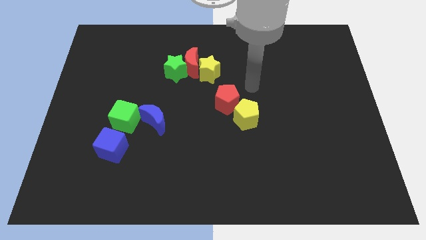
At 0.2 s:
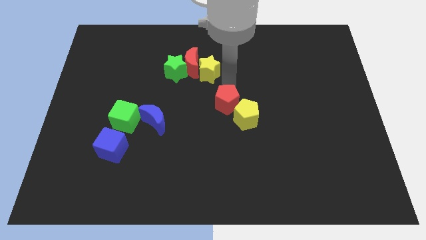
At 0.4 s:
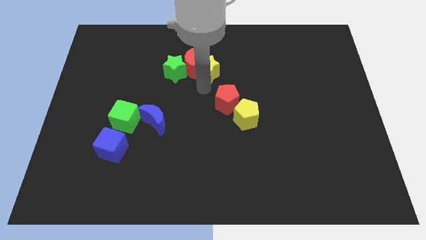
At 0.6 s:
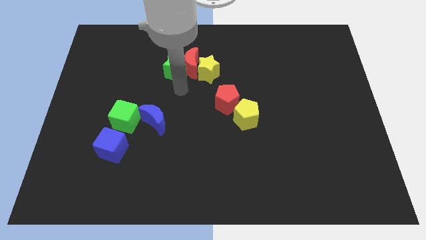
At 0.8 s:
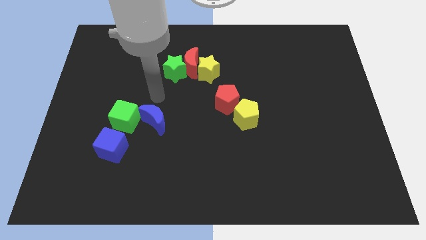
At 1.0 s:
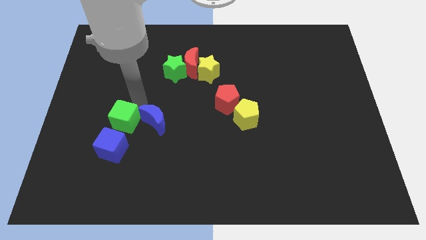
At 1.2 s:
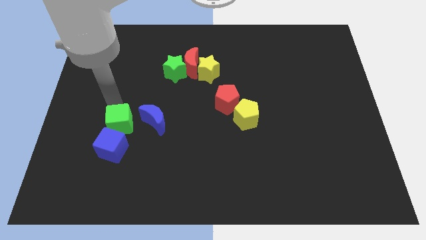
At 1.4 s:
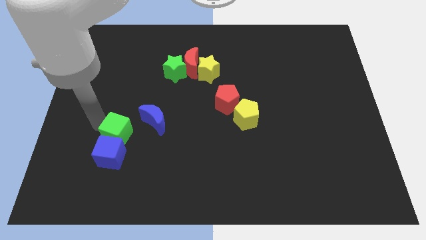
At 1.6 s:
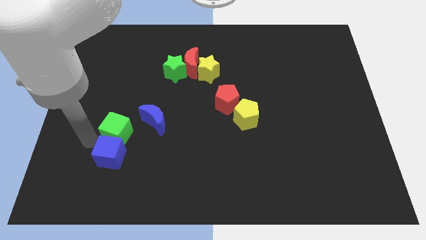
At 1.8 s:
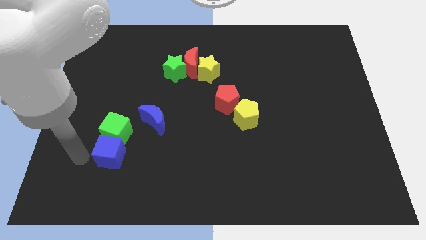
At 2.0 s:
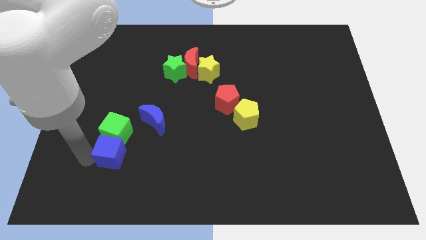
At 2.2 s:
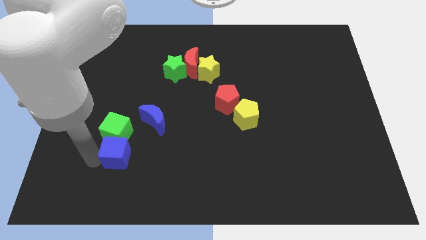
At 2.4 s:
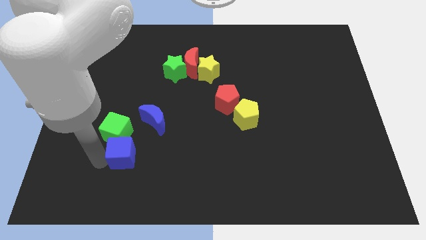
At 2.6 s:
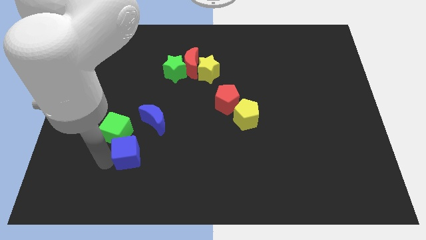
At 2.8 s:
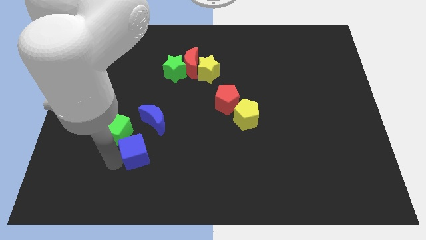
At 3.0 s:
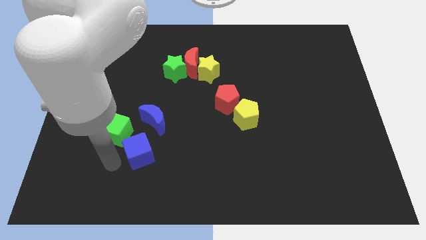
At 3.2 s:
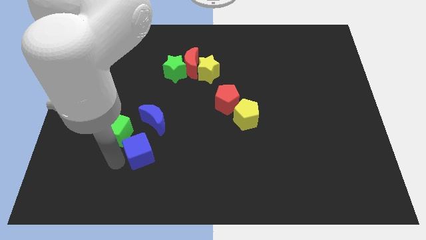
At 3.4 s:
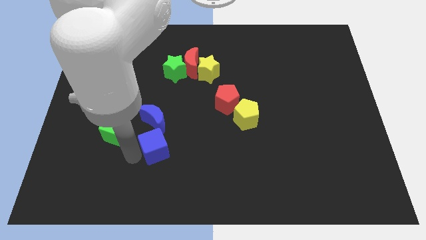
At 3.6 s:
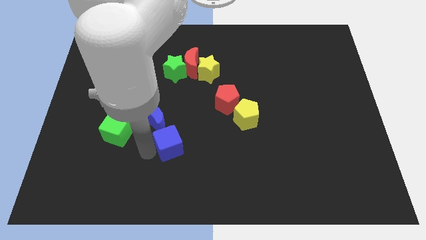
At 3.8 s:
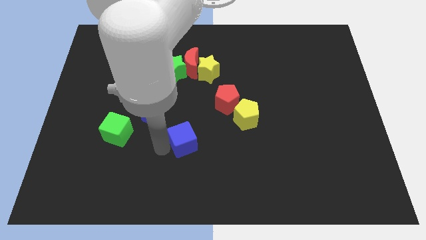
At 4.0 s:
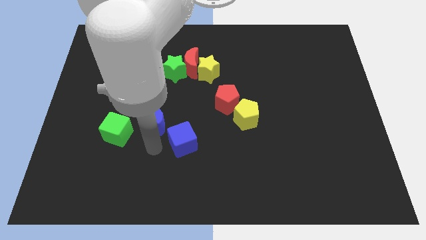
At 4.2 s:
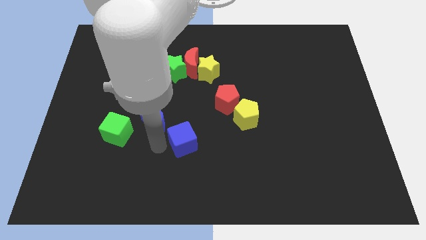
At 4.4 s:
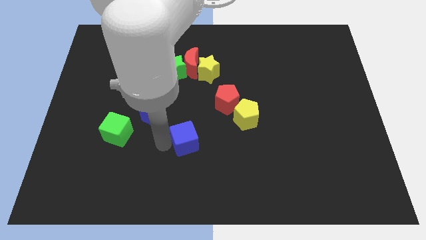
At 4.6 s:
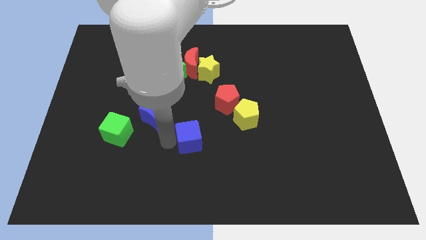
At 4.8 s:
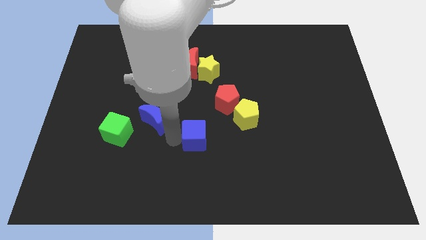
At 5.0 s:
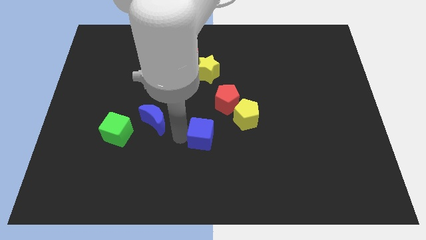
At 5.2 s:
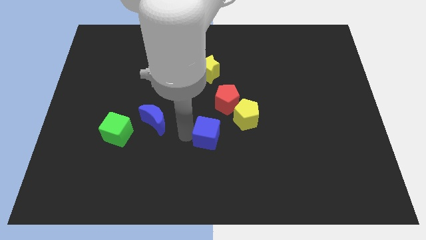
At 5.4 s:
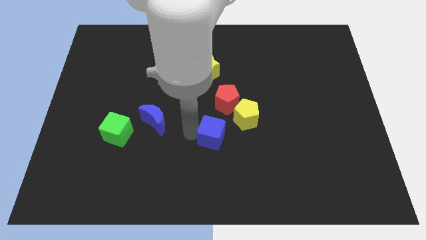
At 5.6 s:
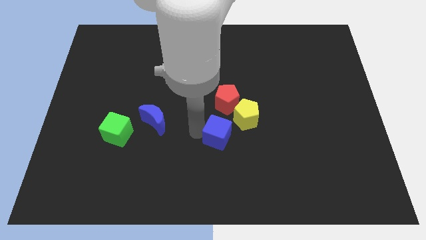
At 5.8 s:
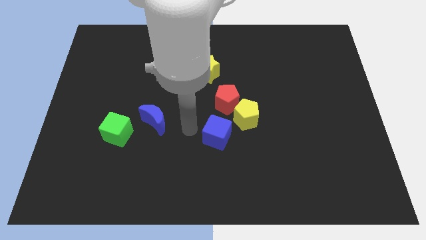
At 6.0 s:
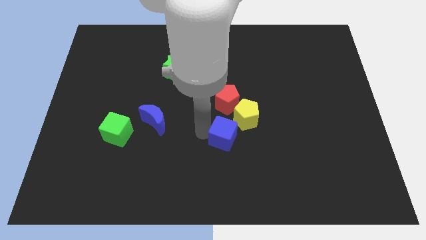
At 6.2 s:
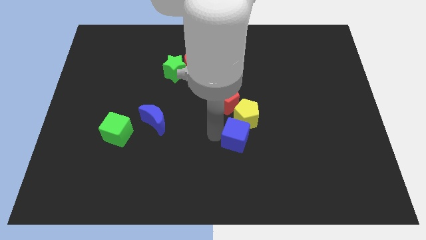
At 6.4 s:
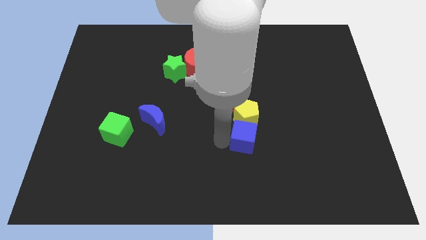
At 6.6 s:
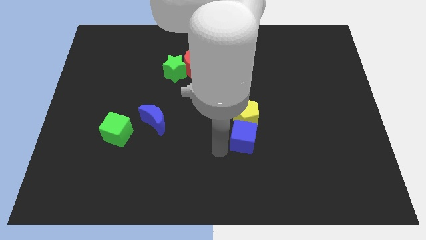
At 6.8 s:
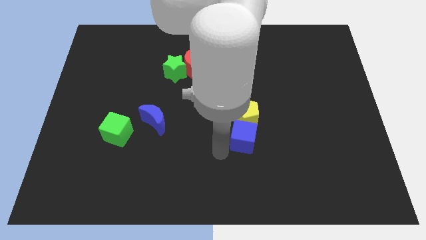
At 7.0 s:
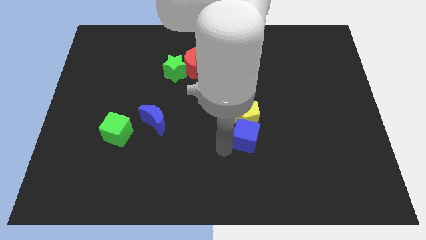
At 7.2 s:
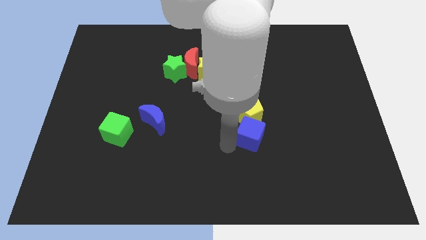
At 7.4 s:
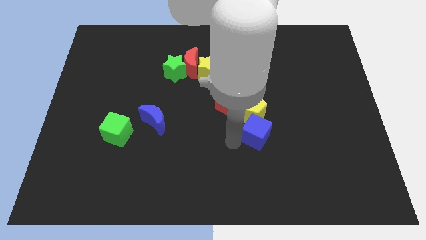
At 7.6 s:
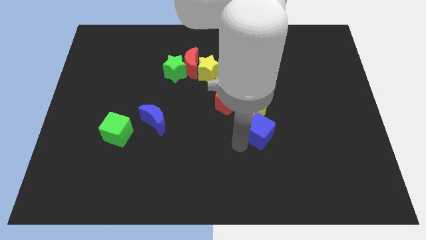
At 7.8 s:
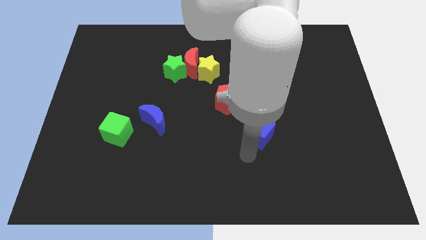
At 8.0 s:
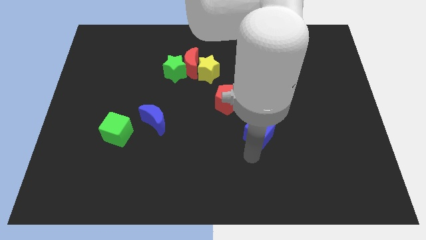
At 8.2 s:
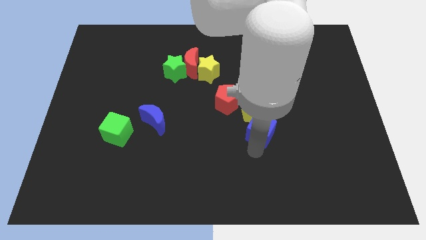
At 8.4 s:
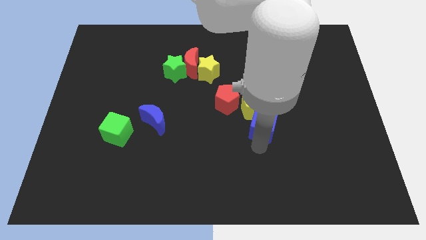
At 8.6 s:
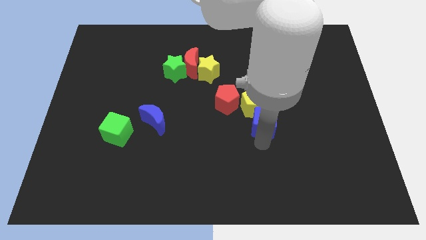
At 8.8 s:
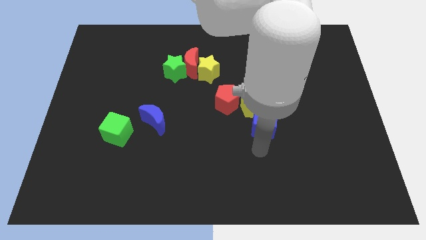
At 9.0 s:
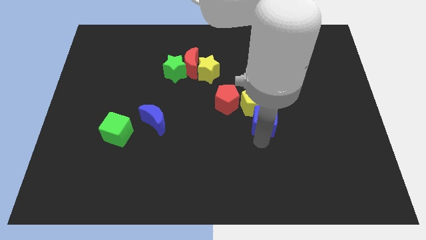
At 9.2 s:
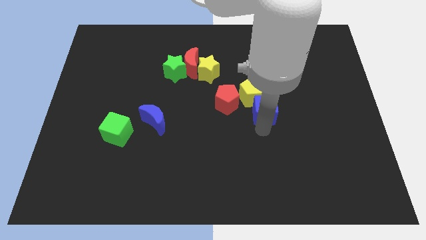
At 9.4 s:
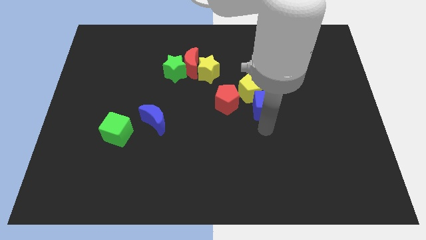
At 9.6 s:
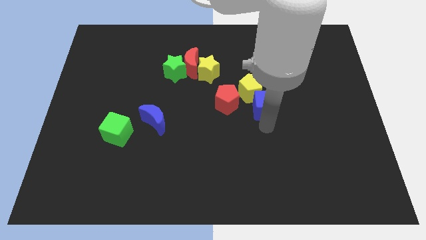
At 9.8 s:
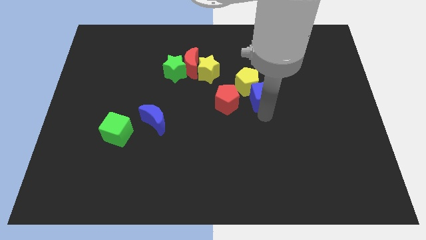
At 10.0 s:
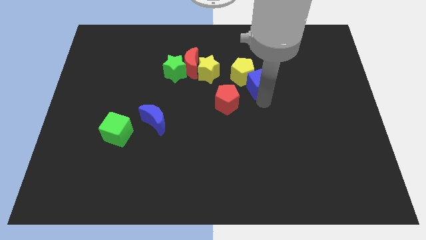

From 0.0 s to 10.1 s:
push the blue cube right of the yellow star

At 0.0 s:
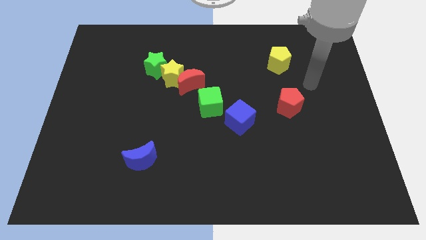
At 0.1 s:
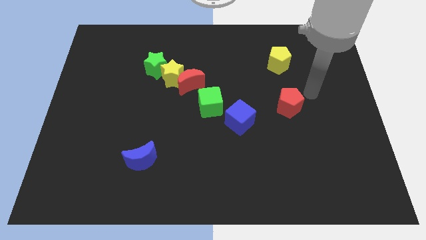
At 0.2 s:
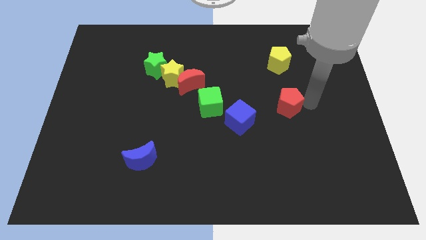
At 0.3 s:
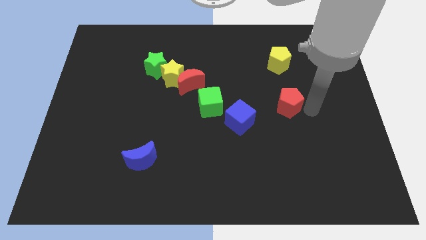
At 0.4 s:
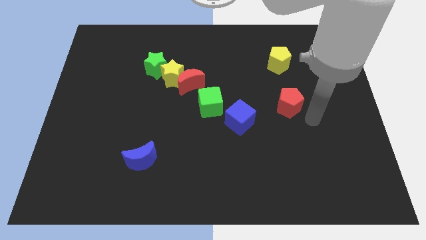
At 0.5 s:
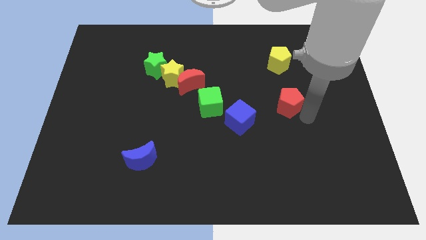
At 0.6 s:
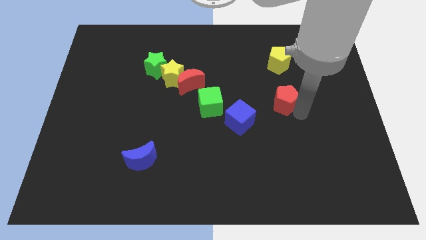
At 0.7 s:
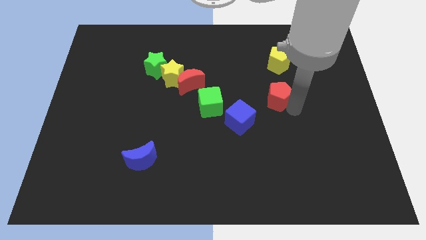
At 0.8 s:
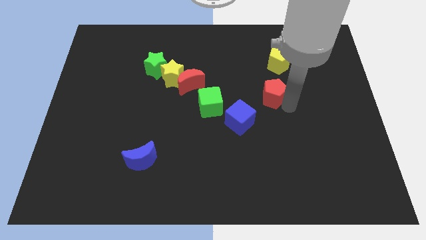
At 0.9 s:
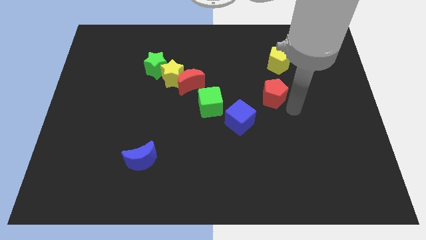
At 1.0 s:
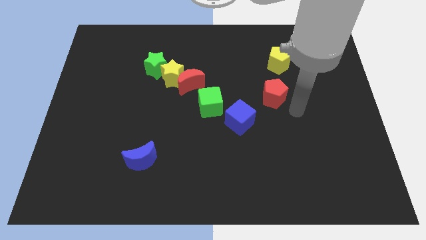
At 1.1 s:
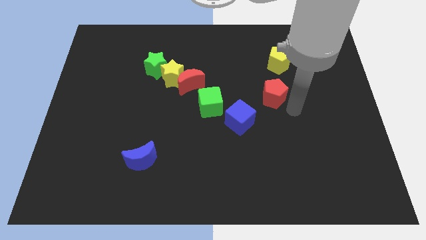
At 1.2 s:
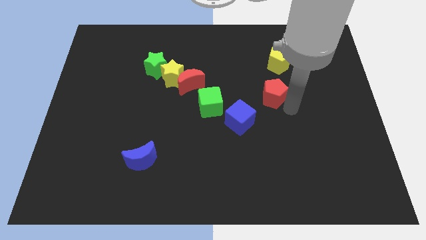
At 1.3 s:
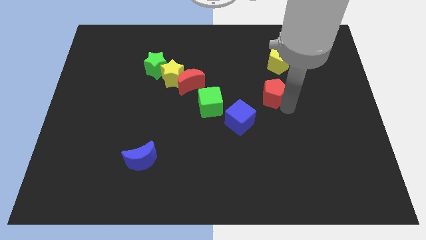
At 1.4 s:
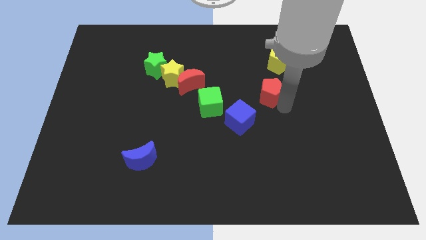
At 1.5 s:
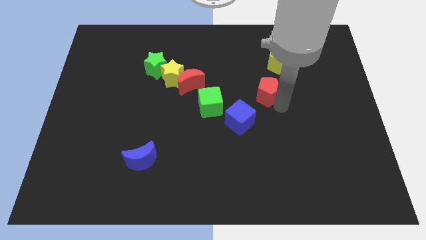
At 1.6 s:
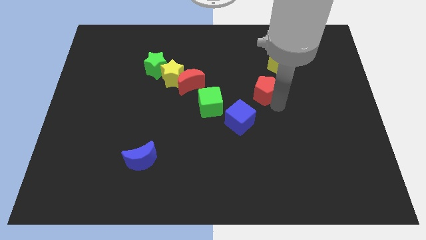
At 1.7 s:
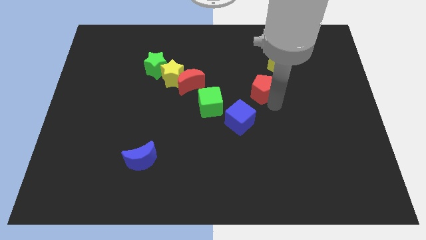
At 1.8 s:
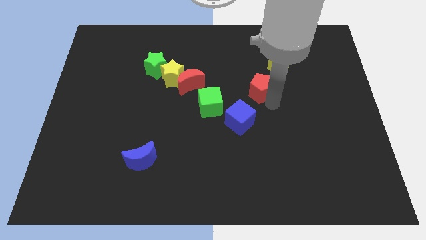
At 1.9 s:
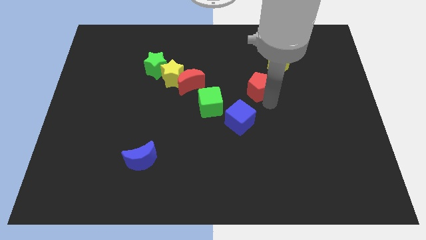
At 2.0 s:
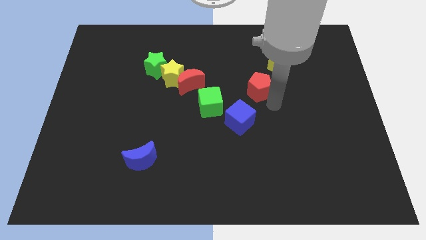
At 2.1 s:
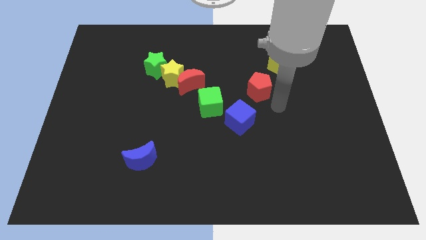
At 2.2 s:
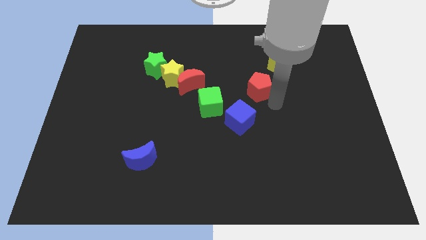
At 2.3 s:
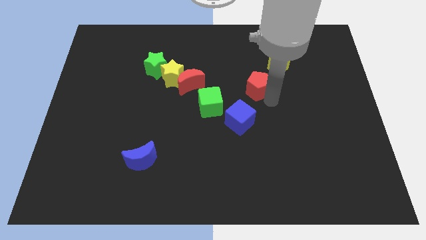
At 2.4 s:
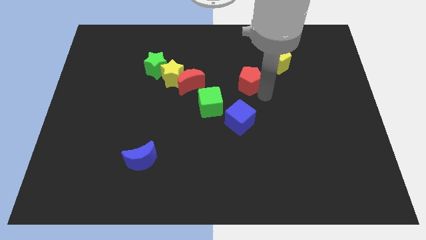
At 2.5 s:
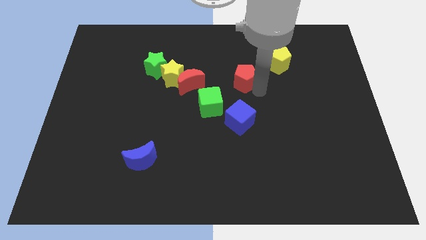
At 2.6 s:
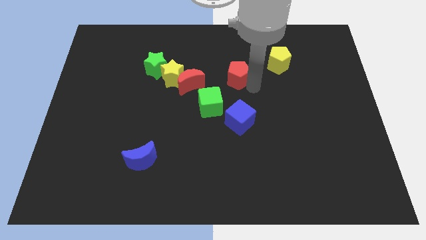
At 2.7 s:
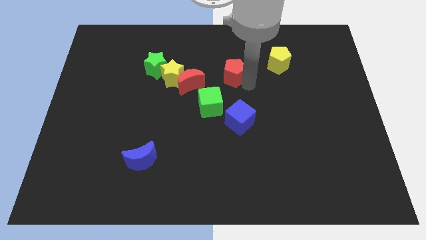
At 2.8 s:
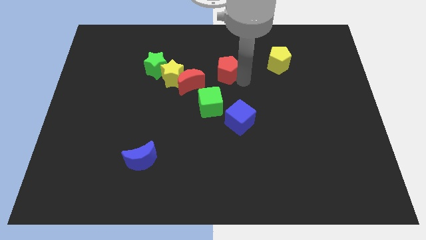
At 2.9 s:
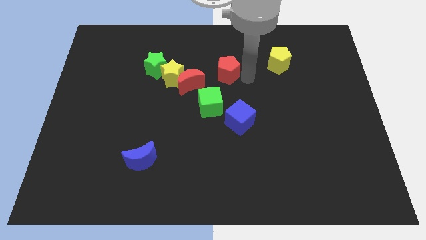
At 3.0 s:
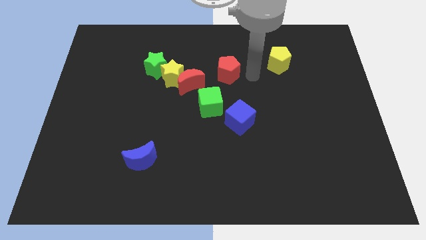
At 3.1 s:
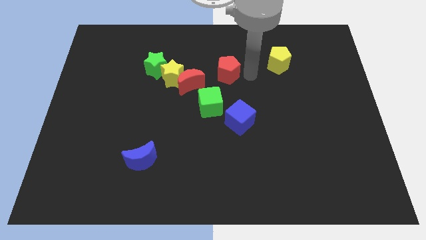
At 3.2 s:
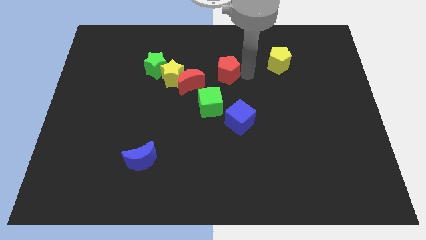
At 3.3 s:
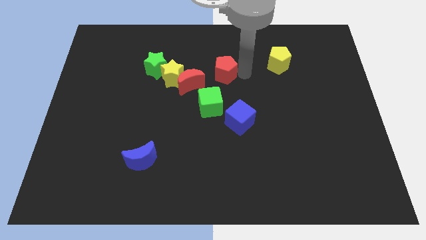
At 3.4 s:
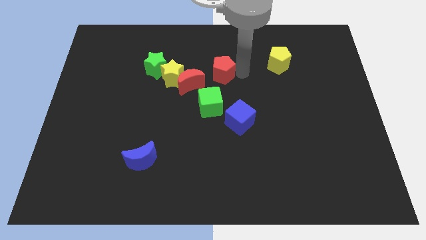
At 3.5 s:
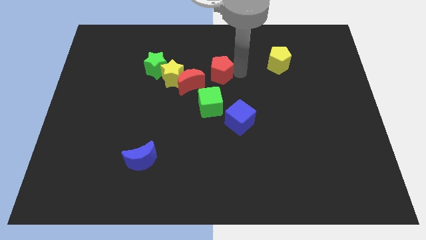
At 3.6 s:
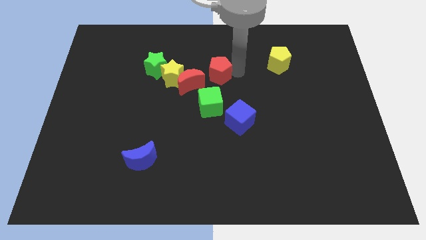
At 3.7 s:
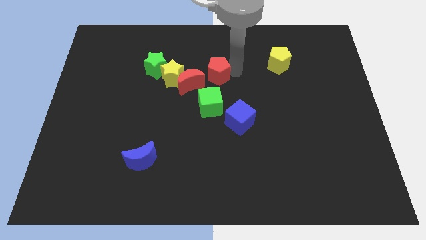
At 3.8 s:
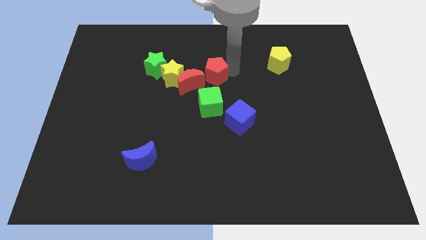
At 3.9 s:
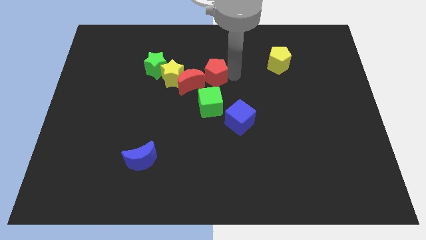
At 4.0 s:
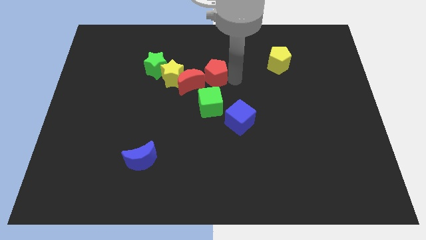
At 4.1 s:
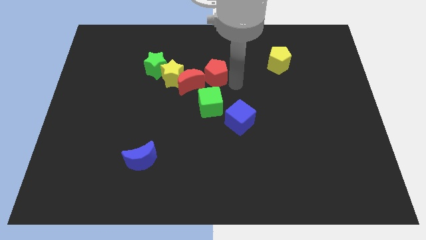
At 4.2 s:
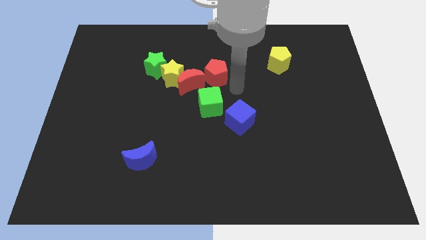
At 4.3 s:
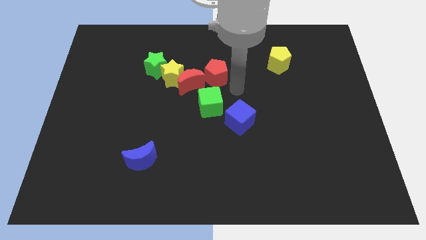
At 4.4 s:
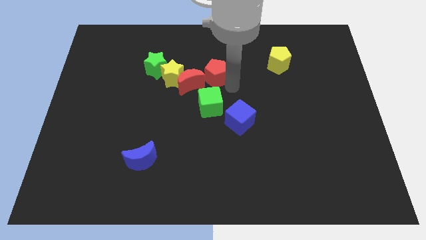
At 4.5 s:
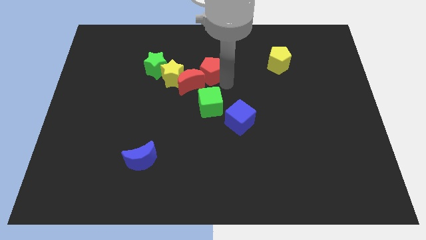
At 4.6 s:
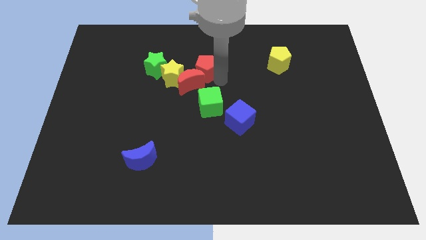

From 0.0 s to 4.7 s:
put the red pentagon to the top right side of the yellow star
